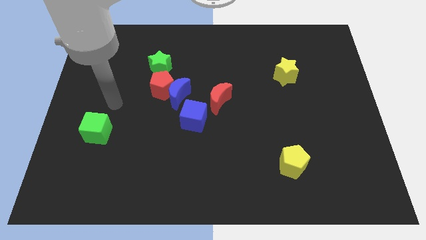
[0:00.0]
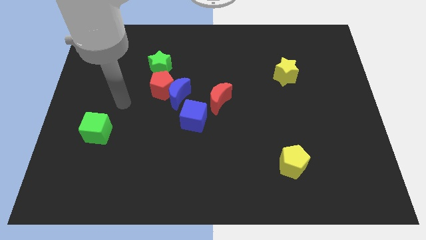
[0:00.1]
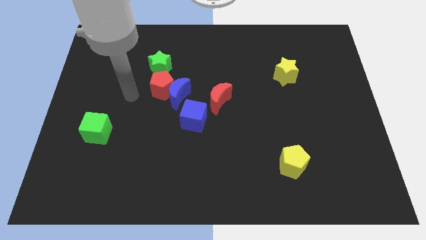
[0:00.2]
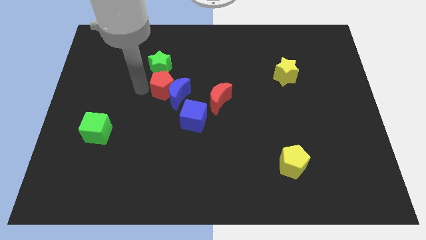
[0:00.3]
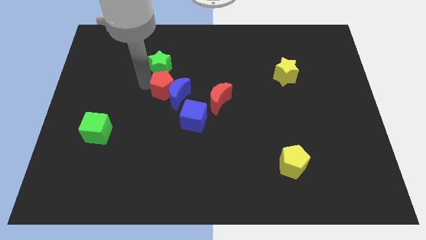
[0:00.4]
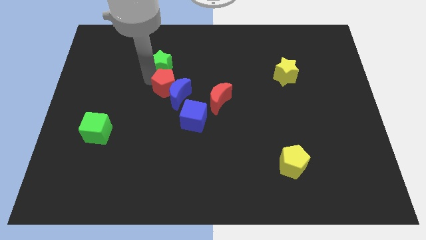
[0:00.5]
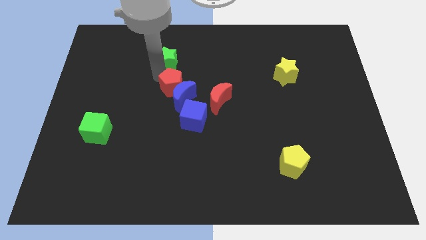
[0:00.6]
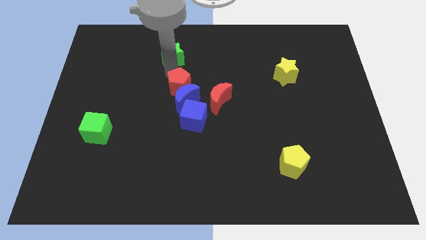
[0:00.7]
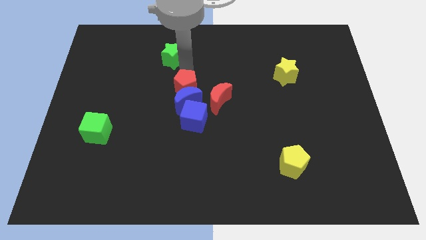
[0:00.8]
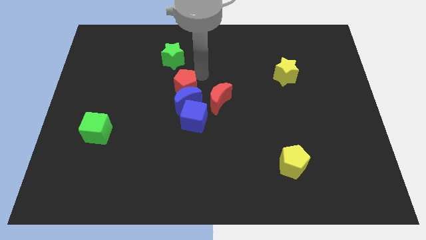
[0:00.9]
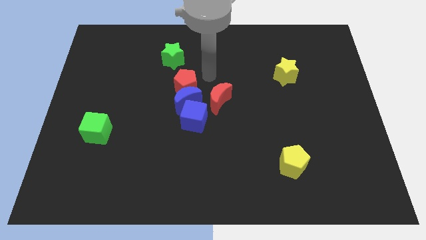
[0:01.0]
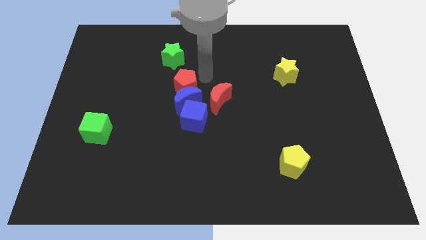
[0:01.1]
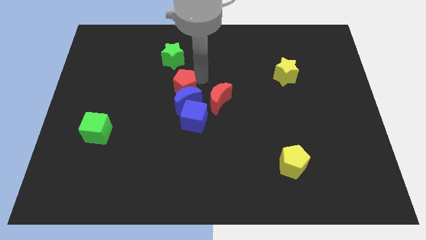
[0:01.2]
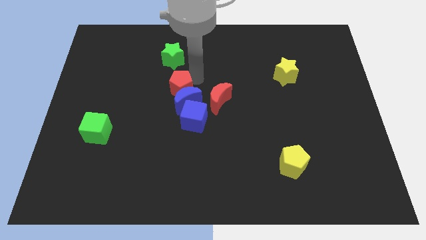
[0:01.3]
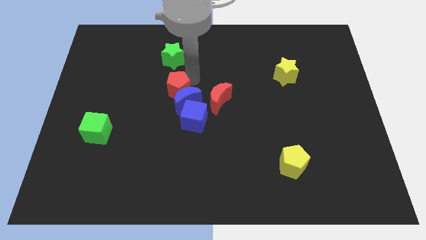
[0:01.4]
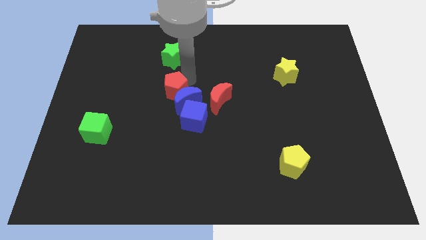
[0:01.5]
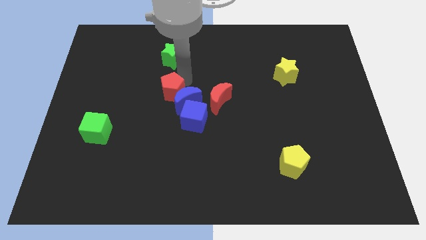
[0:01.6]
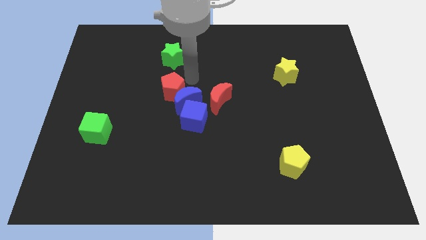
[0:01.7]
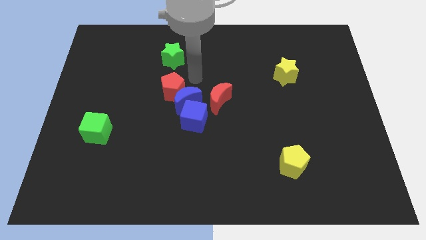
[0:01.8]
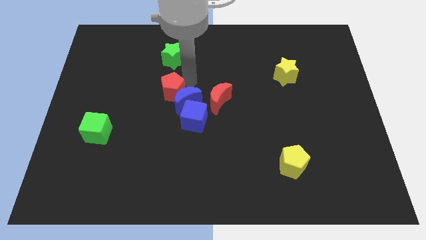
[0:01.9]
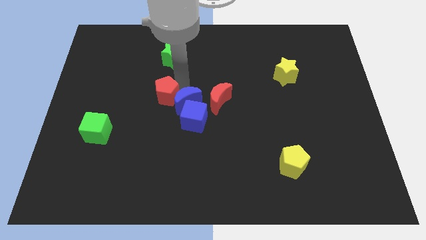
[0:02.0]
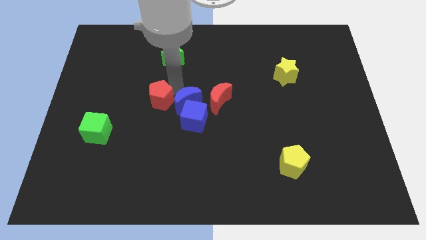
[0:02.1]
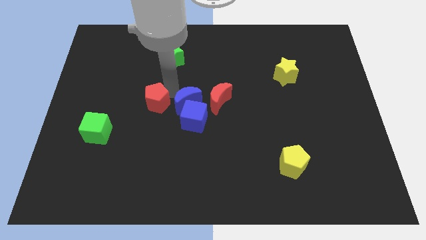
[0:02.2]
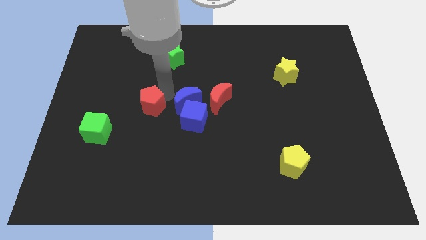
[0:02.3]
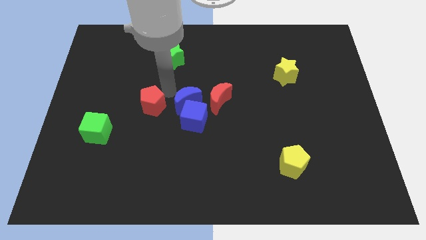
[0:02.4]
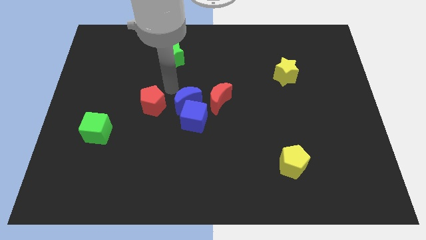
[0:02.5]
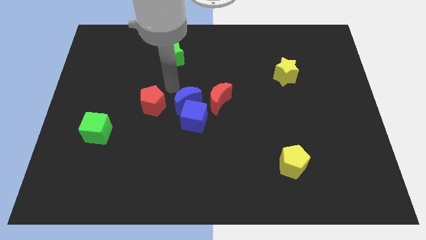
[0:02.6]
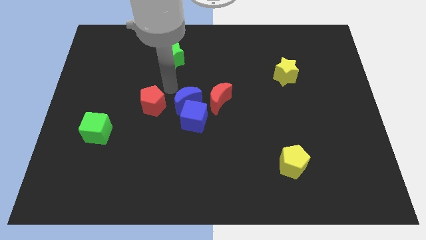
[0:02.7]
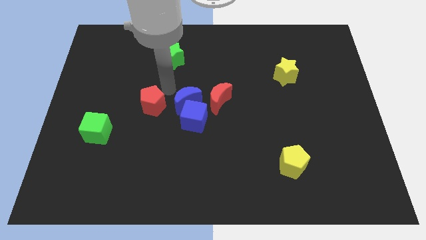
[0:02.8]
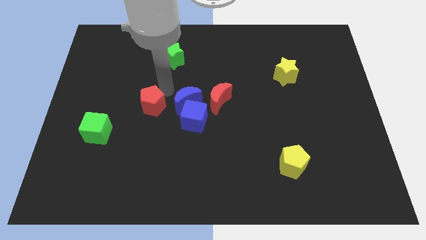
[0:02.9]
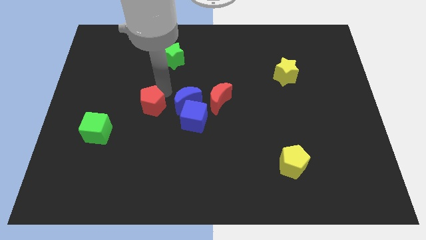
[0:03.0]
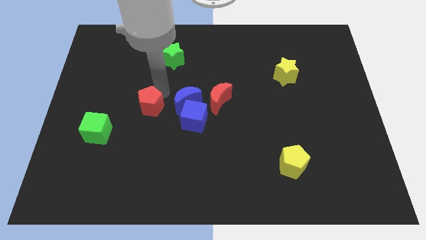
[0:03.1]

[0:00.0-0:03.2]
move the red pentagon away from the blue moon and green star

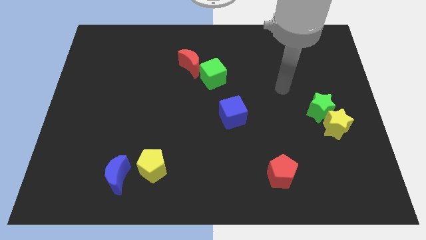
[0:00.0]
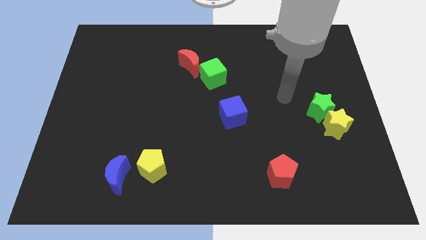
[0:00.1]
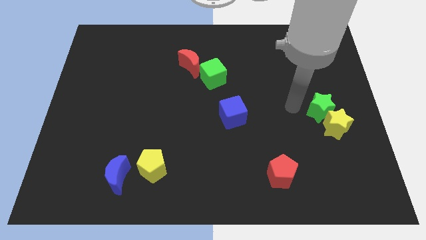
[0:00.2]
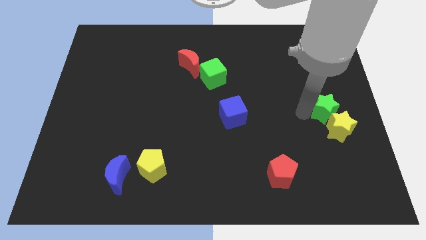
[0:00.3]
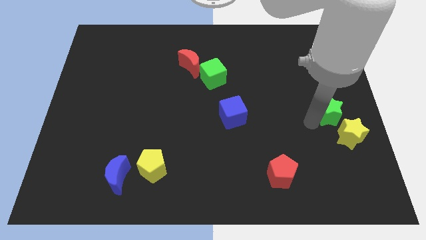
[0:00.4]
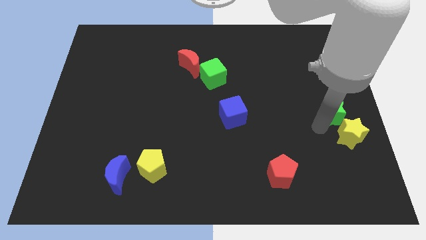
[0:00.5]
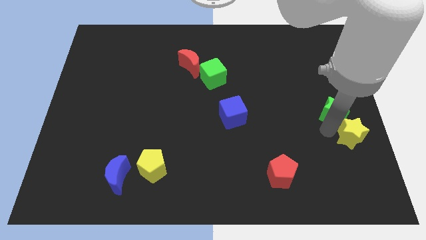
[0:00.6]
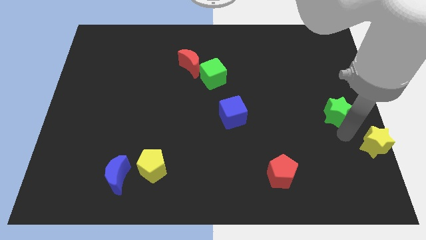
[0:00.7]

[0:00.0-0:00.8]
separate the green star from the yellow star

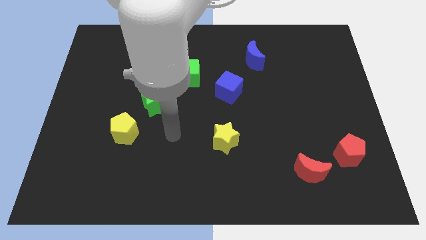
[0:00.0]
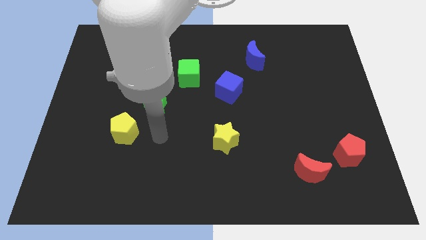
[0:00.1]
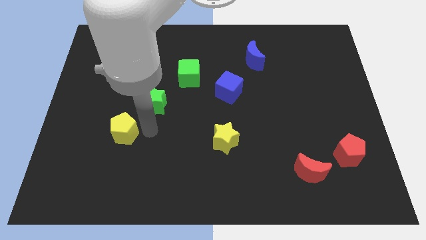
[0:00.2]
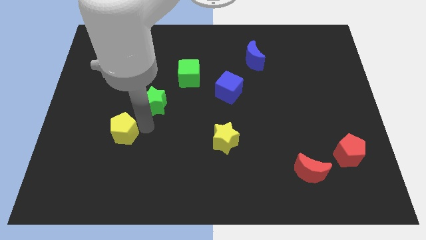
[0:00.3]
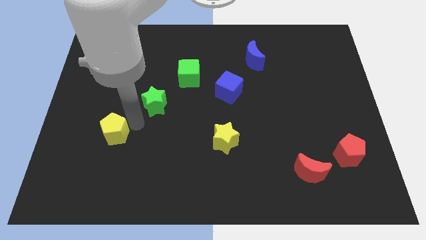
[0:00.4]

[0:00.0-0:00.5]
move the green star away from the yellow pentagon

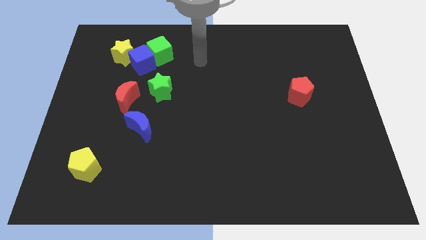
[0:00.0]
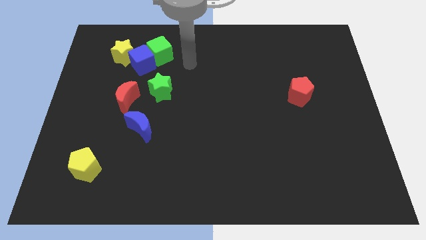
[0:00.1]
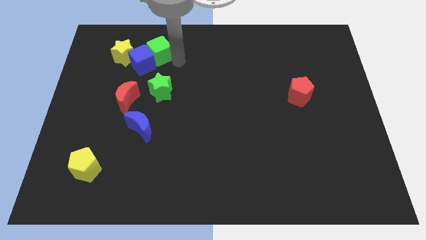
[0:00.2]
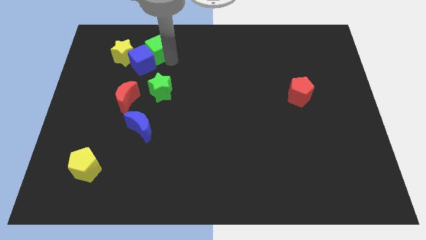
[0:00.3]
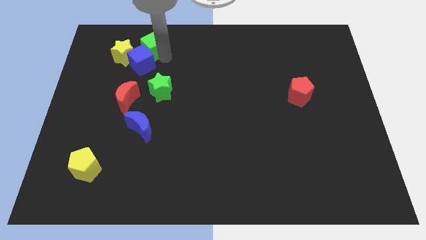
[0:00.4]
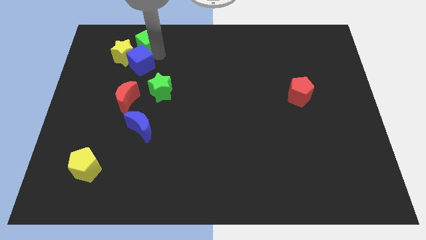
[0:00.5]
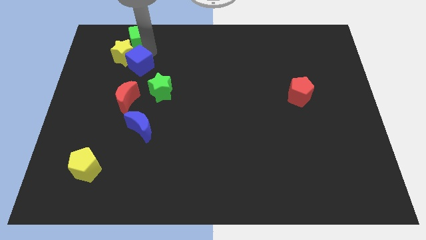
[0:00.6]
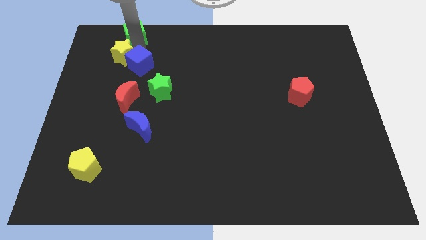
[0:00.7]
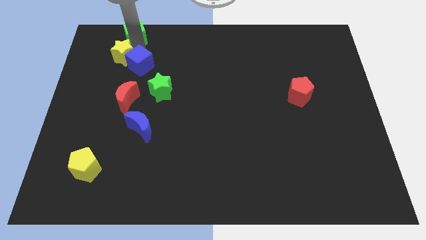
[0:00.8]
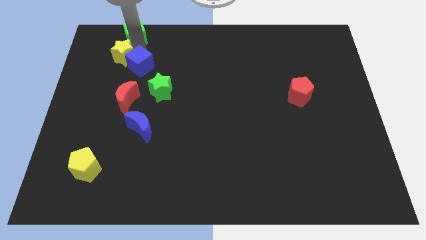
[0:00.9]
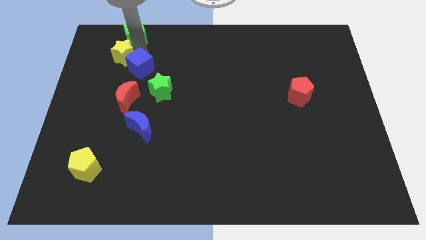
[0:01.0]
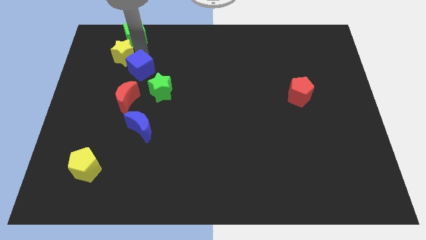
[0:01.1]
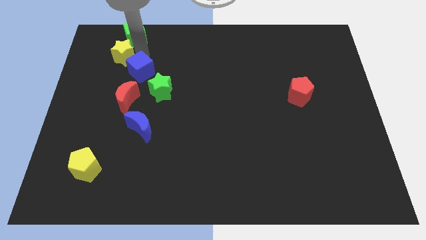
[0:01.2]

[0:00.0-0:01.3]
separate the blue cube from the green cube and yellow star

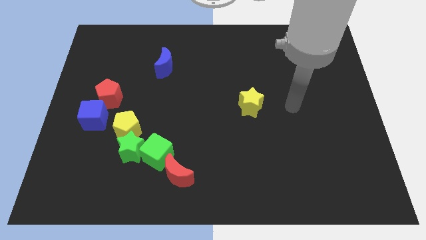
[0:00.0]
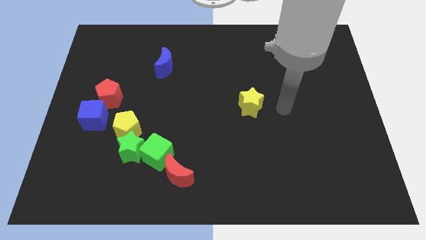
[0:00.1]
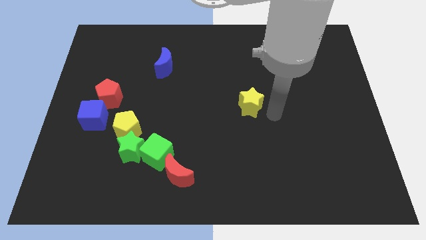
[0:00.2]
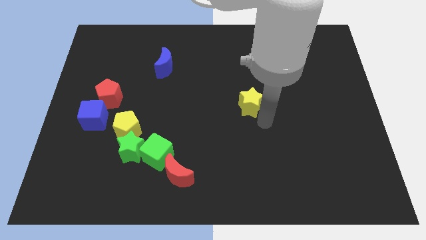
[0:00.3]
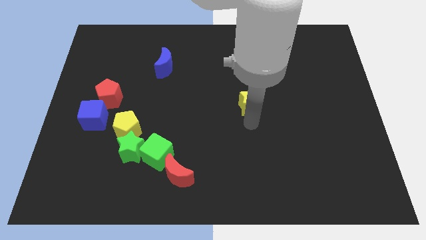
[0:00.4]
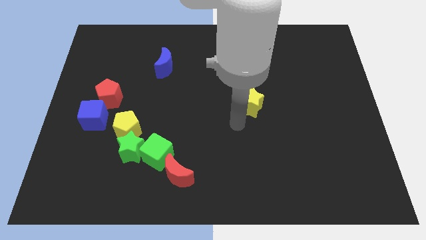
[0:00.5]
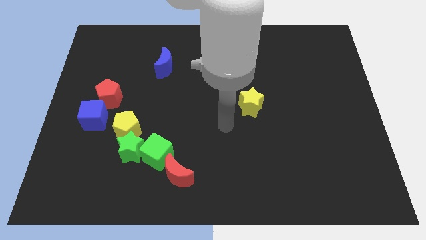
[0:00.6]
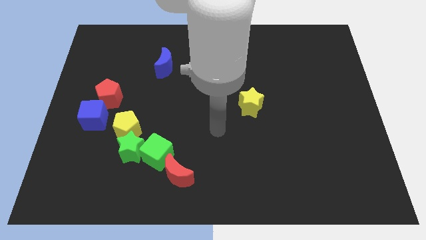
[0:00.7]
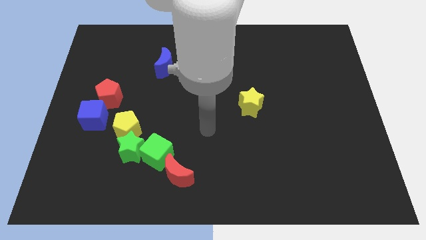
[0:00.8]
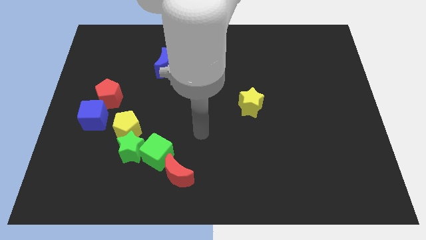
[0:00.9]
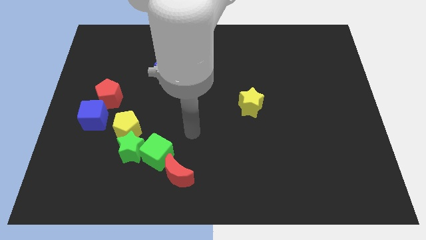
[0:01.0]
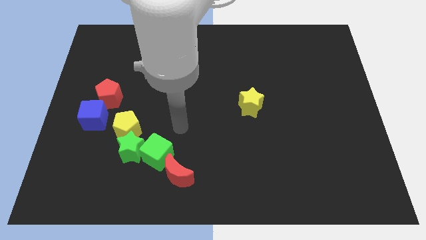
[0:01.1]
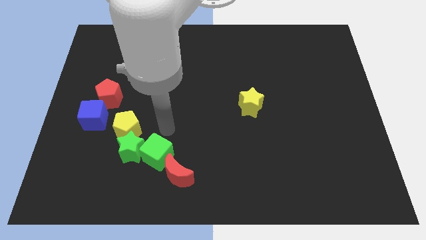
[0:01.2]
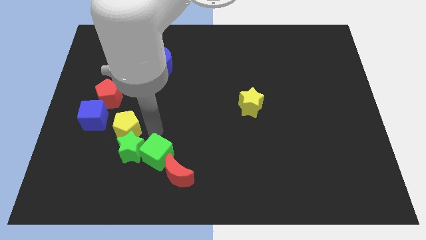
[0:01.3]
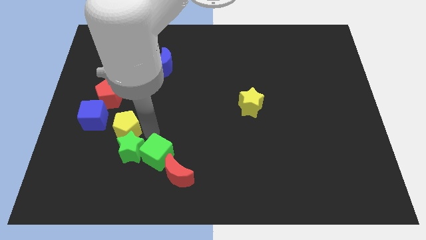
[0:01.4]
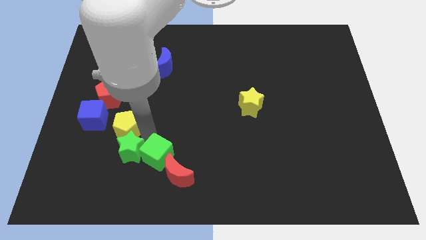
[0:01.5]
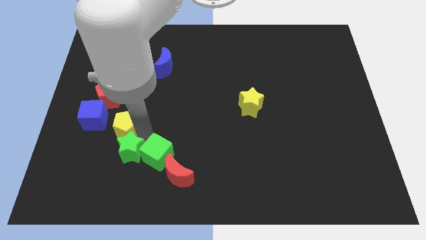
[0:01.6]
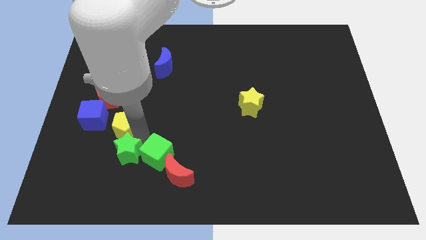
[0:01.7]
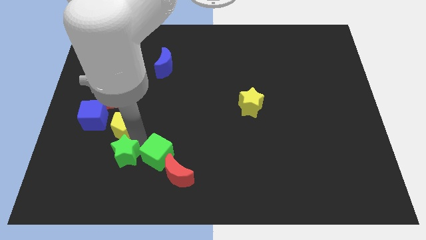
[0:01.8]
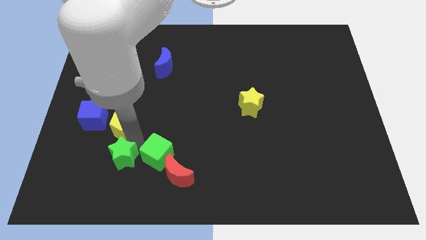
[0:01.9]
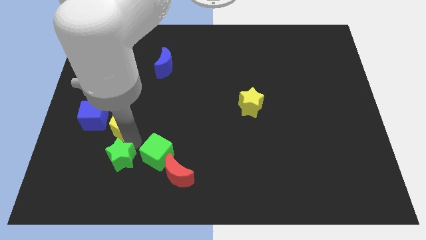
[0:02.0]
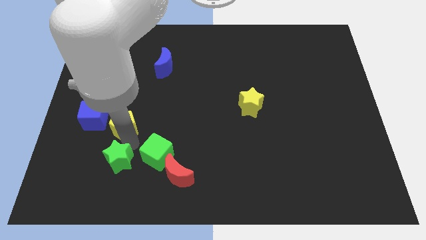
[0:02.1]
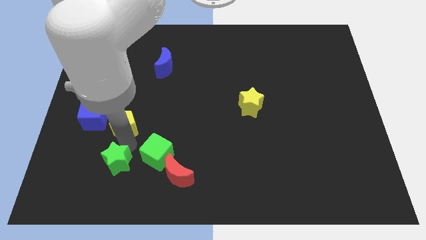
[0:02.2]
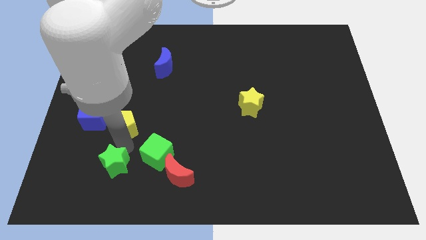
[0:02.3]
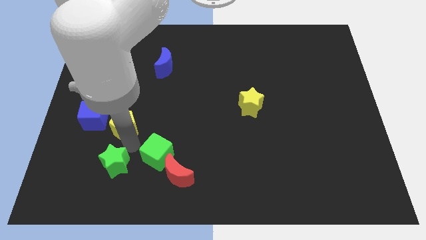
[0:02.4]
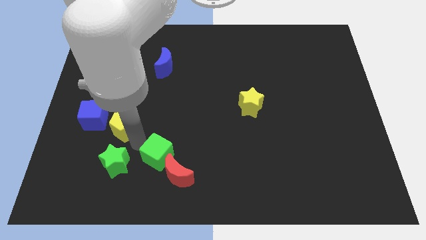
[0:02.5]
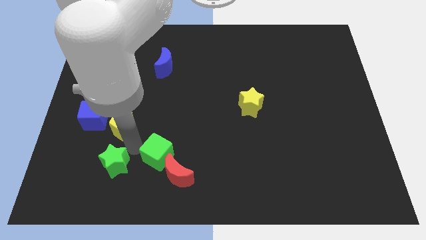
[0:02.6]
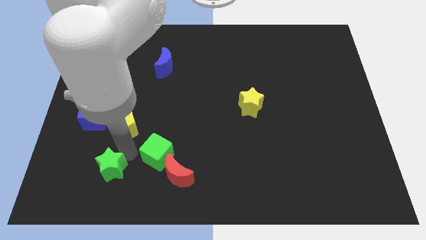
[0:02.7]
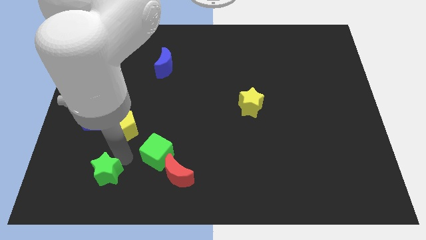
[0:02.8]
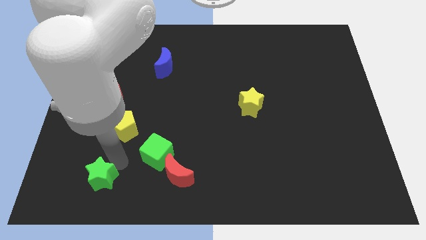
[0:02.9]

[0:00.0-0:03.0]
move the green star away from the green cube and yellow pentagon

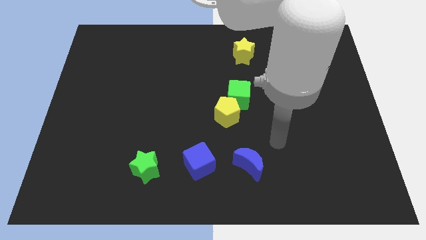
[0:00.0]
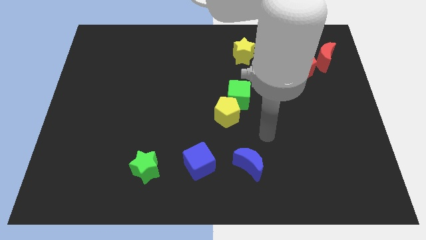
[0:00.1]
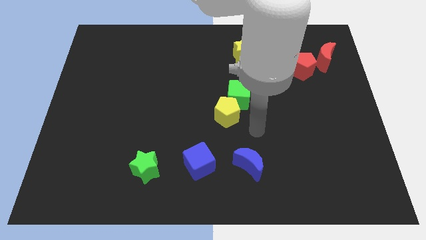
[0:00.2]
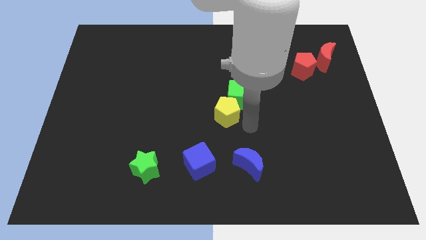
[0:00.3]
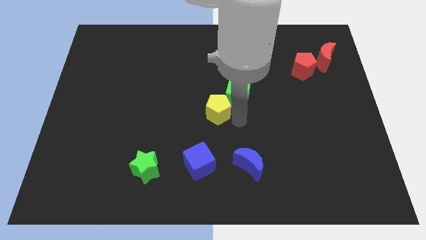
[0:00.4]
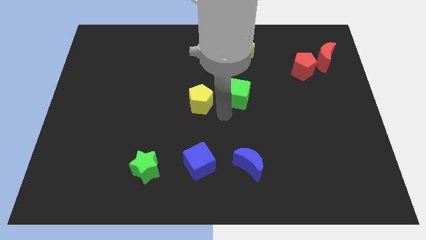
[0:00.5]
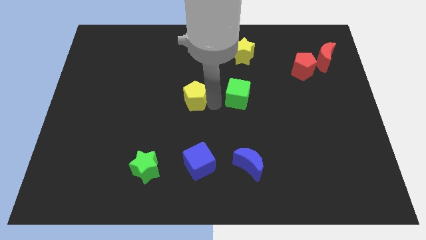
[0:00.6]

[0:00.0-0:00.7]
move the green cube away from the yellow pentagon
